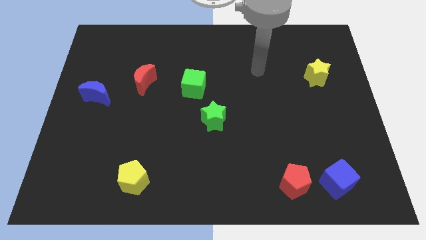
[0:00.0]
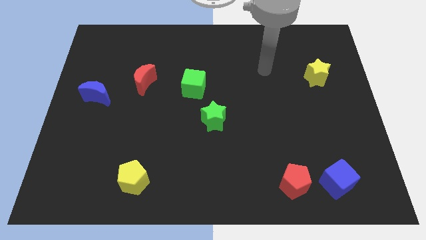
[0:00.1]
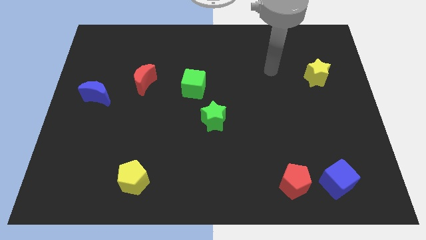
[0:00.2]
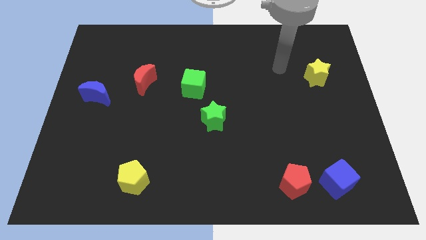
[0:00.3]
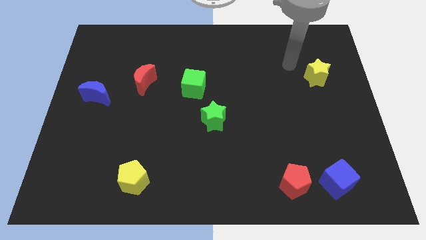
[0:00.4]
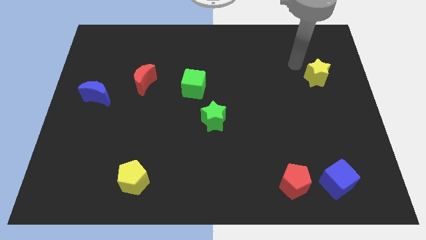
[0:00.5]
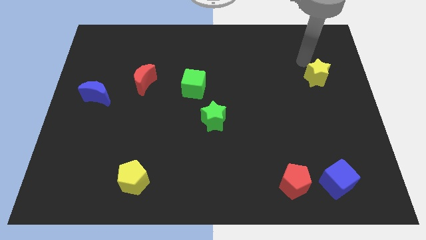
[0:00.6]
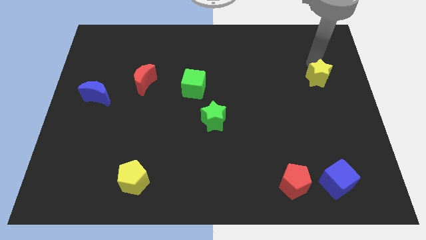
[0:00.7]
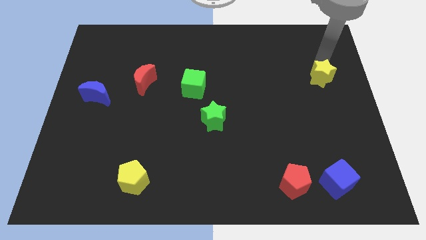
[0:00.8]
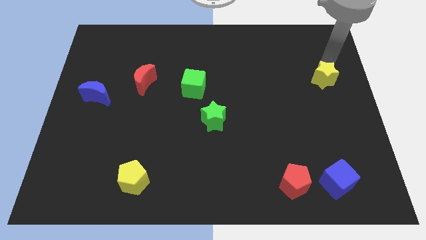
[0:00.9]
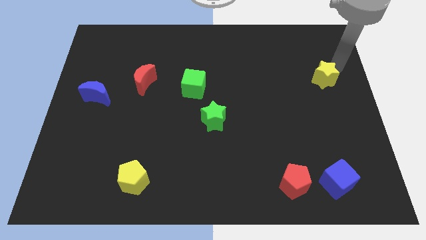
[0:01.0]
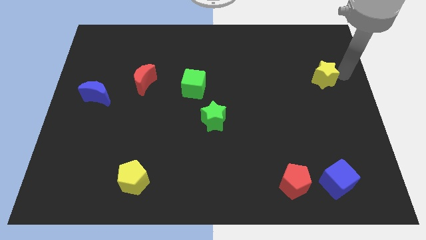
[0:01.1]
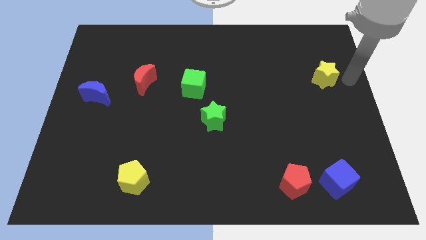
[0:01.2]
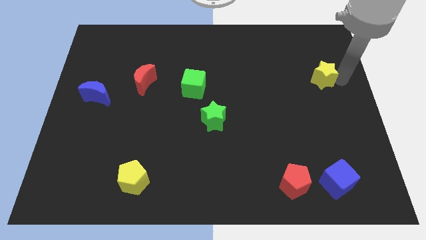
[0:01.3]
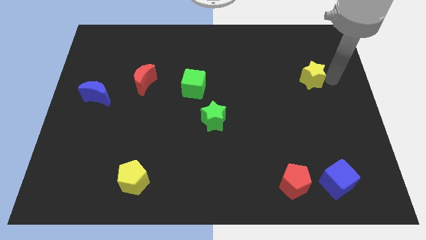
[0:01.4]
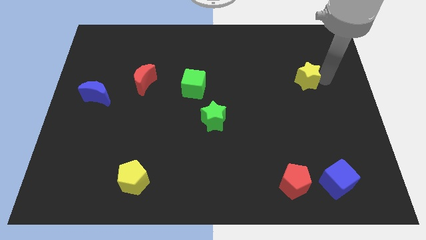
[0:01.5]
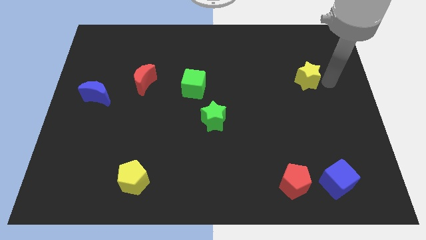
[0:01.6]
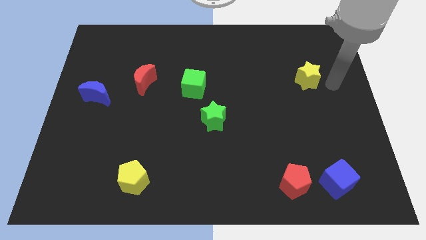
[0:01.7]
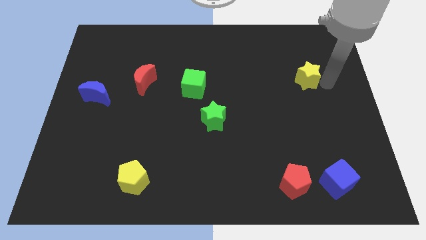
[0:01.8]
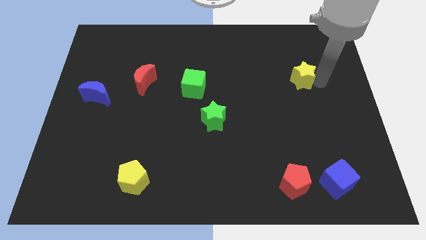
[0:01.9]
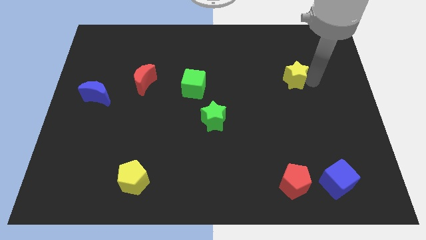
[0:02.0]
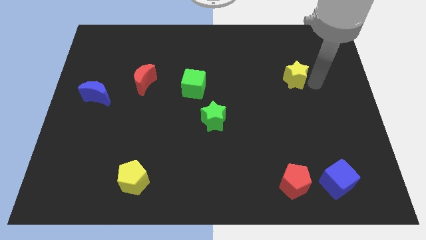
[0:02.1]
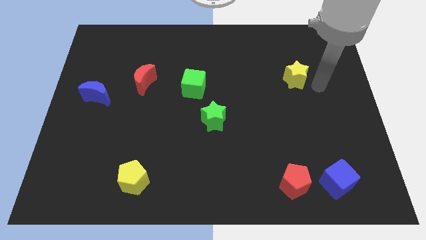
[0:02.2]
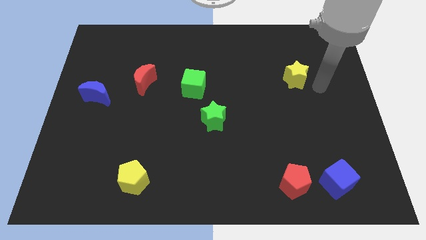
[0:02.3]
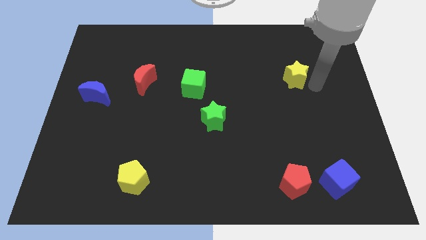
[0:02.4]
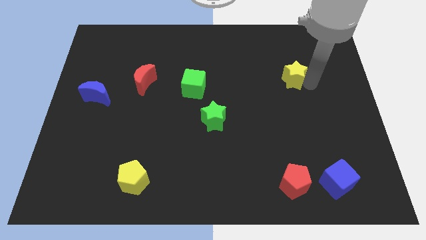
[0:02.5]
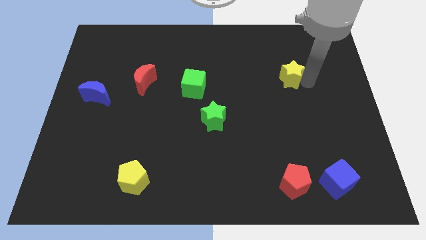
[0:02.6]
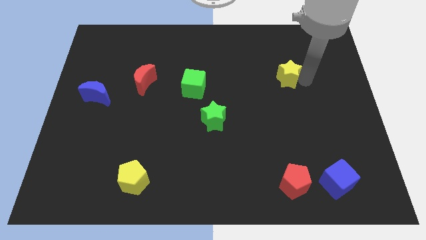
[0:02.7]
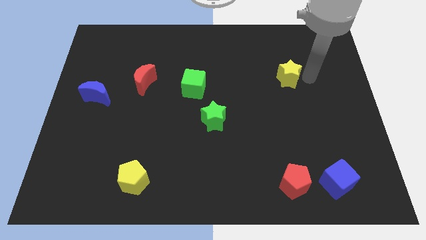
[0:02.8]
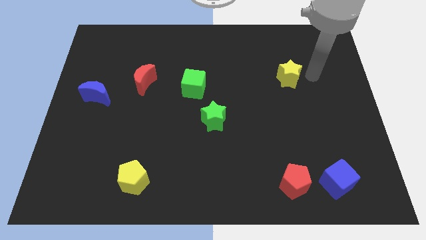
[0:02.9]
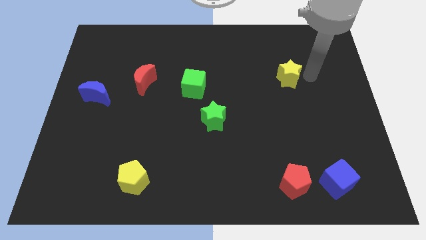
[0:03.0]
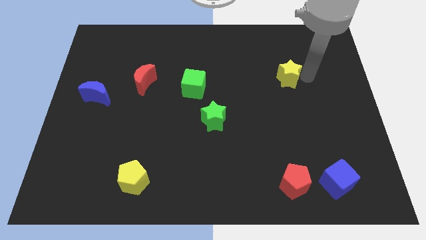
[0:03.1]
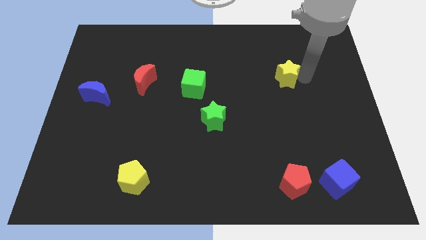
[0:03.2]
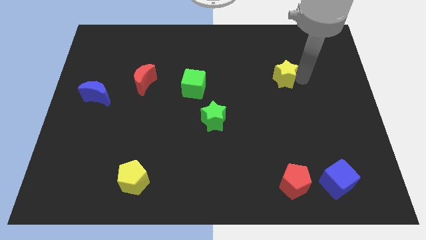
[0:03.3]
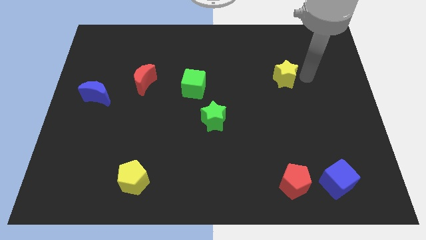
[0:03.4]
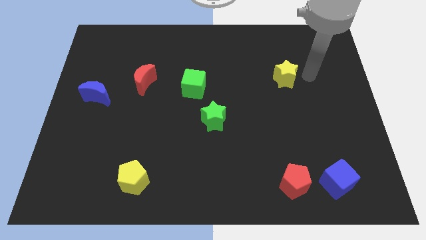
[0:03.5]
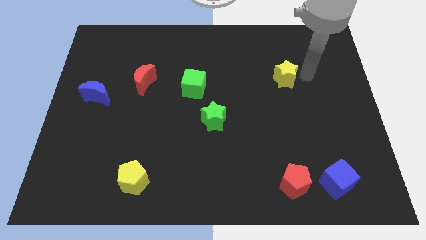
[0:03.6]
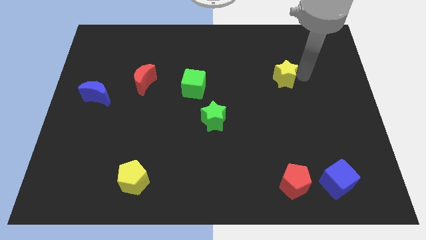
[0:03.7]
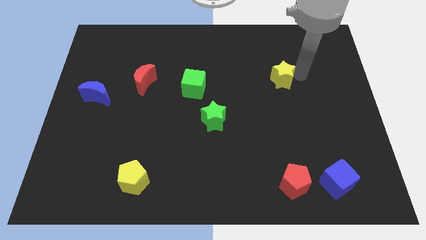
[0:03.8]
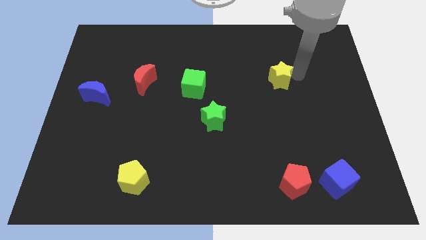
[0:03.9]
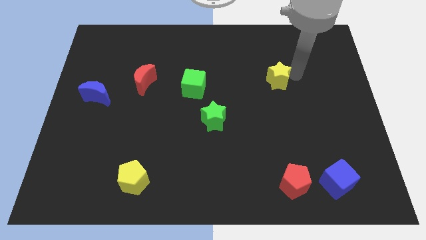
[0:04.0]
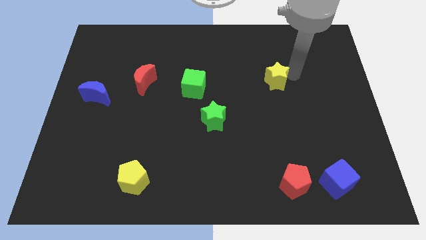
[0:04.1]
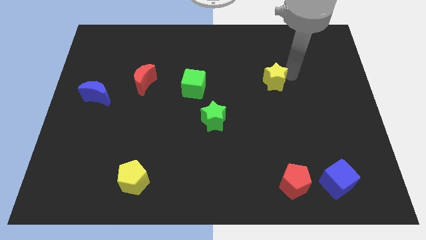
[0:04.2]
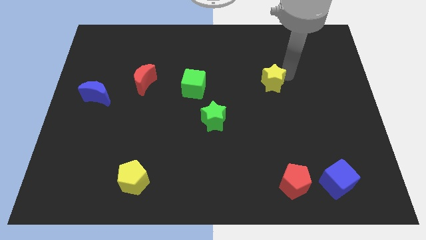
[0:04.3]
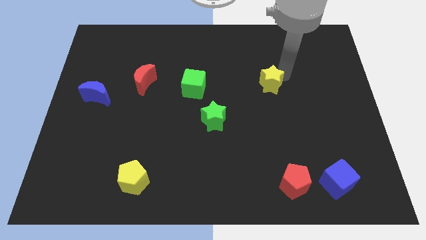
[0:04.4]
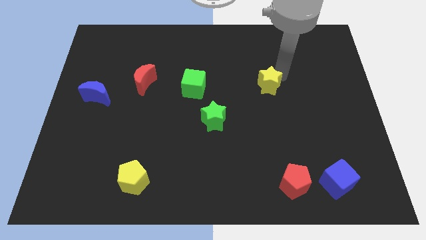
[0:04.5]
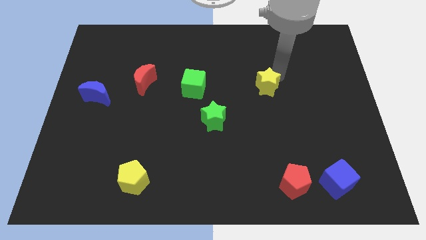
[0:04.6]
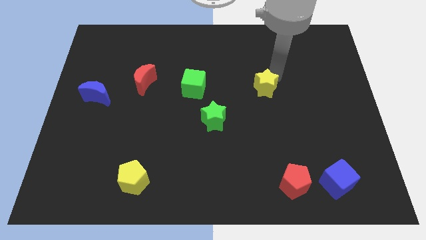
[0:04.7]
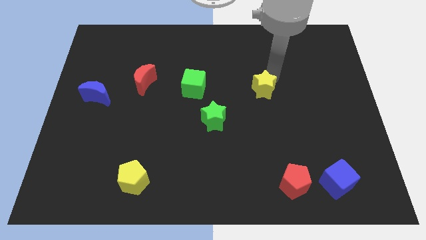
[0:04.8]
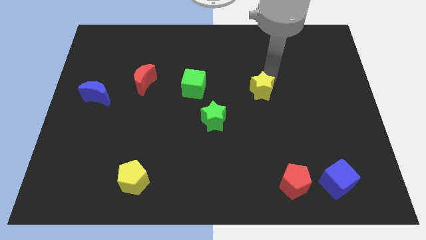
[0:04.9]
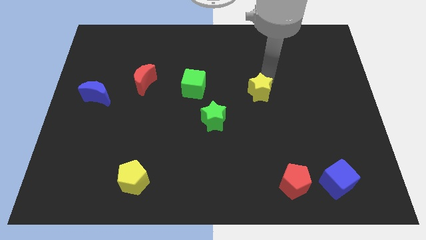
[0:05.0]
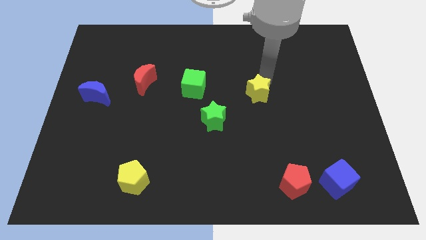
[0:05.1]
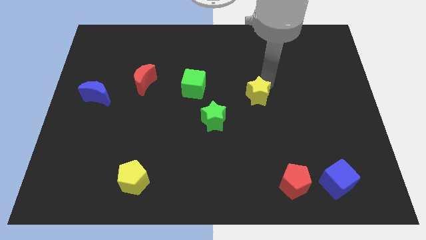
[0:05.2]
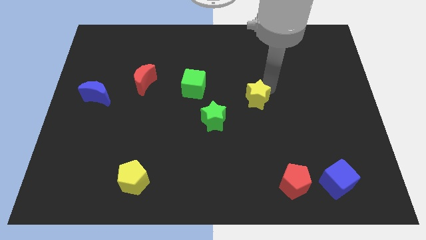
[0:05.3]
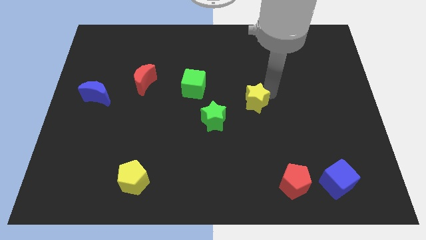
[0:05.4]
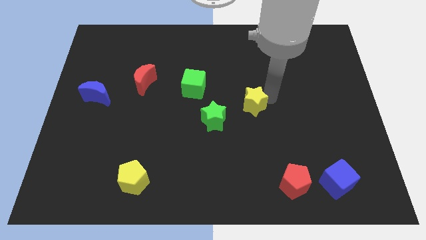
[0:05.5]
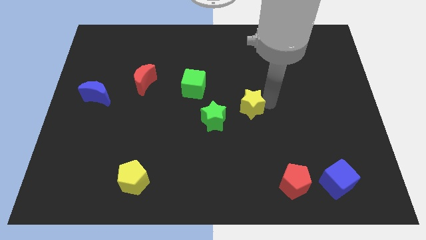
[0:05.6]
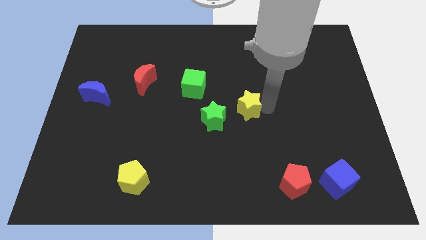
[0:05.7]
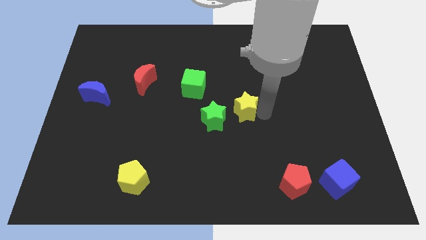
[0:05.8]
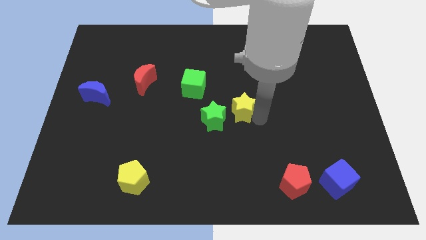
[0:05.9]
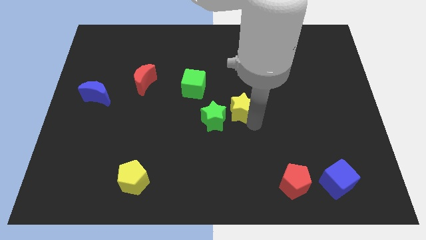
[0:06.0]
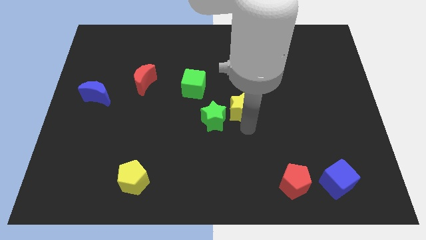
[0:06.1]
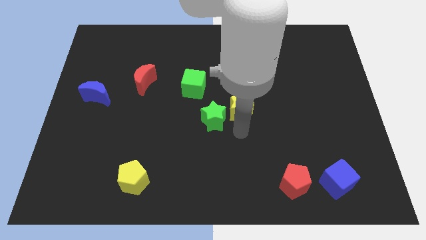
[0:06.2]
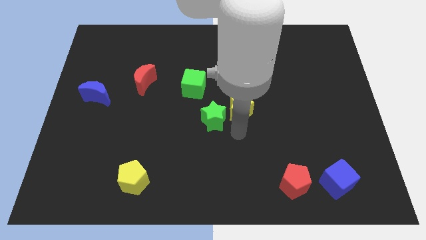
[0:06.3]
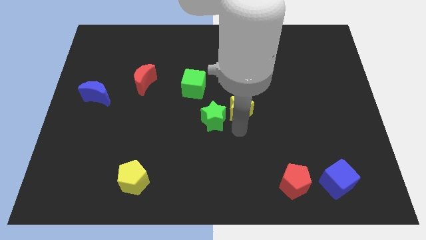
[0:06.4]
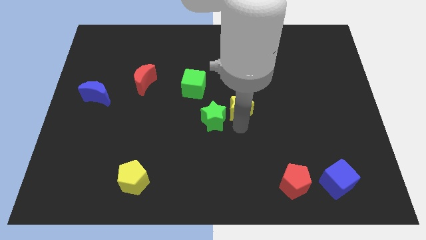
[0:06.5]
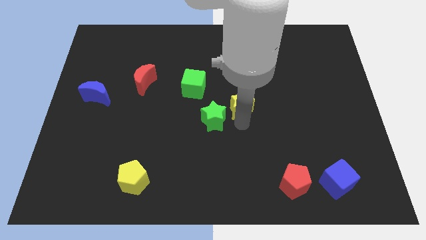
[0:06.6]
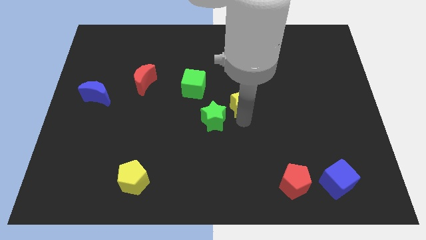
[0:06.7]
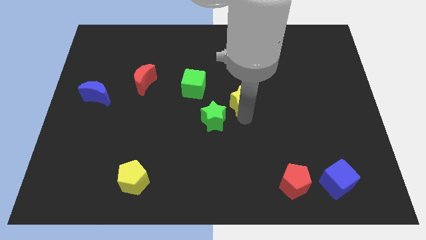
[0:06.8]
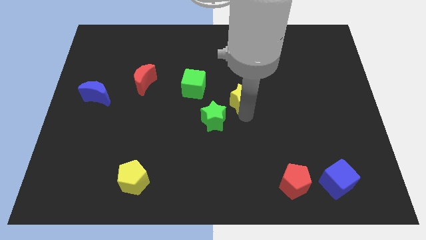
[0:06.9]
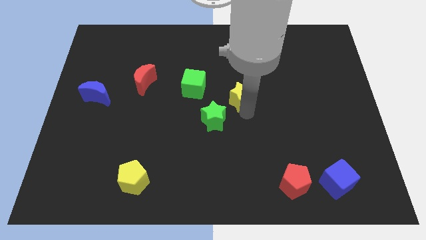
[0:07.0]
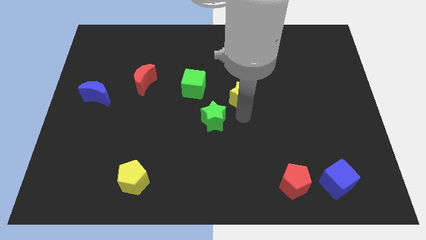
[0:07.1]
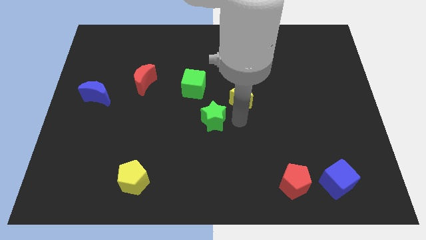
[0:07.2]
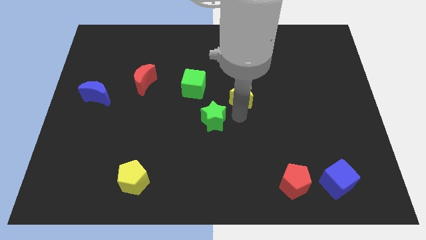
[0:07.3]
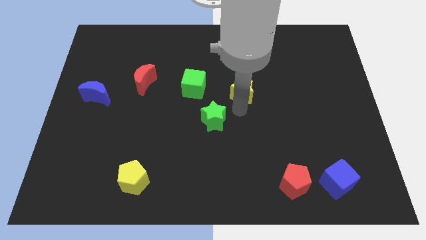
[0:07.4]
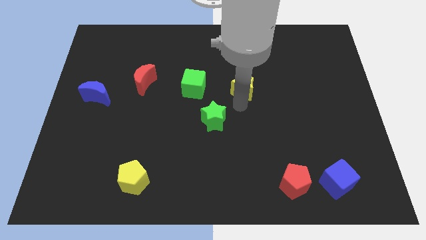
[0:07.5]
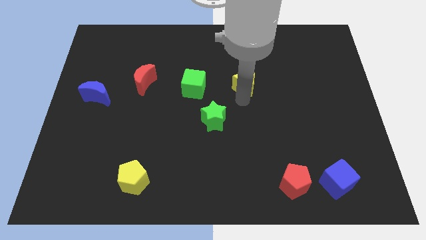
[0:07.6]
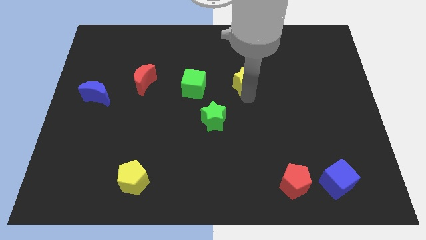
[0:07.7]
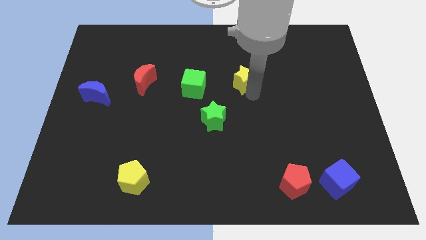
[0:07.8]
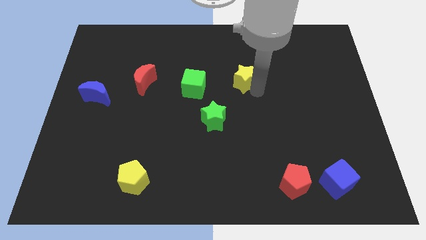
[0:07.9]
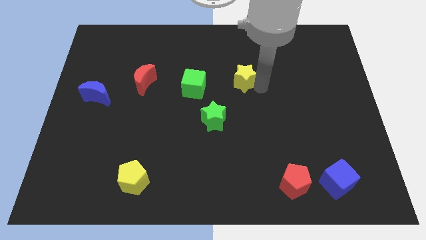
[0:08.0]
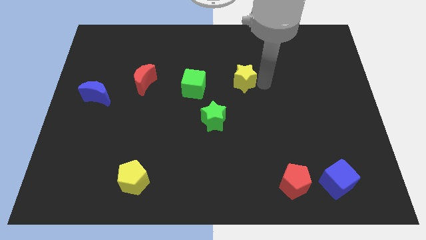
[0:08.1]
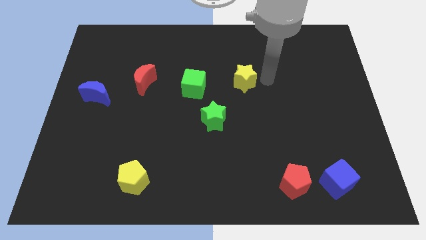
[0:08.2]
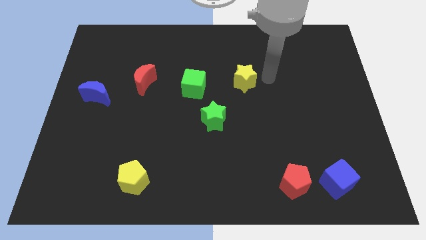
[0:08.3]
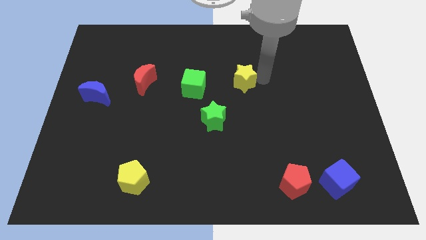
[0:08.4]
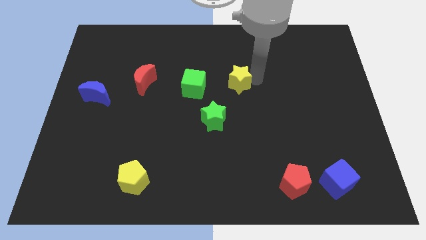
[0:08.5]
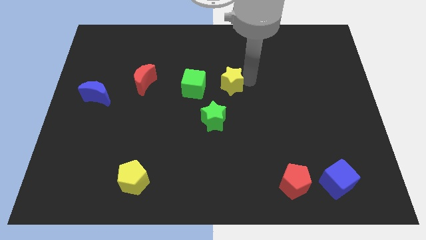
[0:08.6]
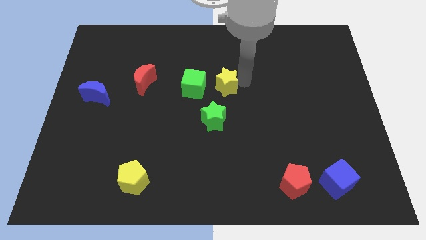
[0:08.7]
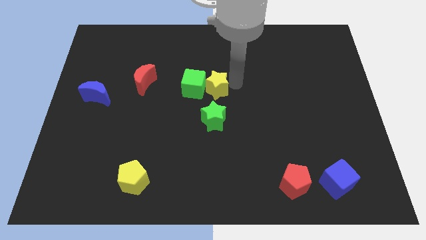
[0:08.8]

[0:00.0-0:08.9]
put the yellow star next to the green cube
